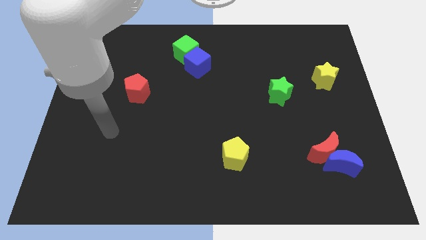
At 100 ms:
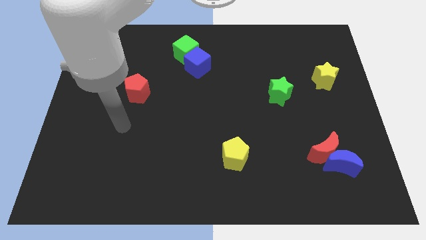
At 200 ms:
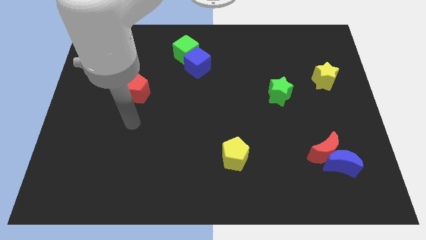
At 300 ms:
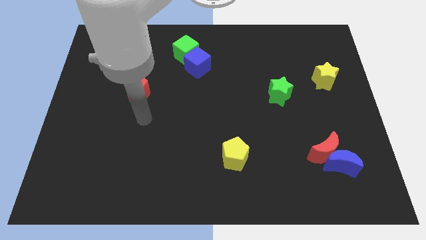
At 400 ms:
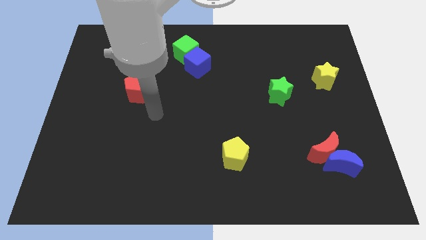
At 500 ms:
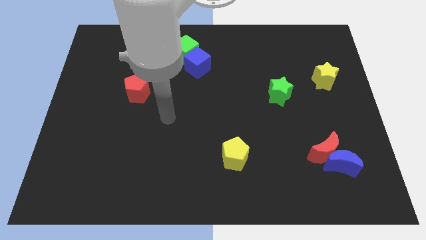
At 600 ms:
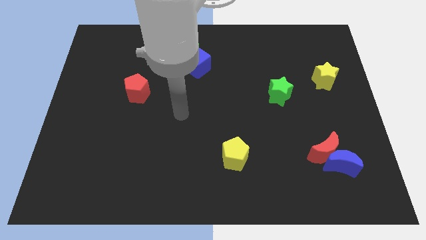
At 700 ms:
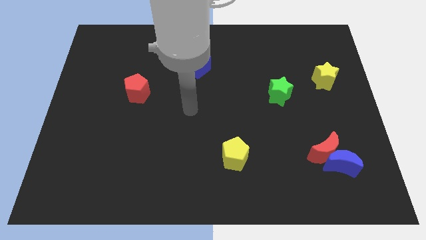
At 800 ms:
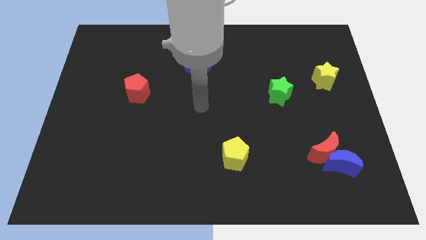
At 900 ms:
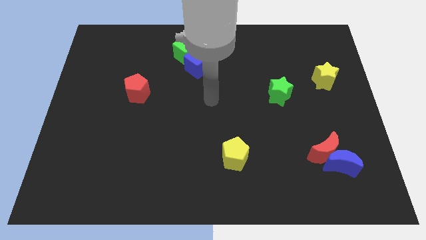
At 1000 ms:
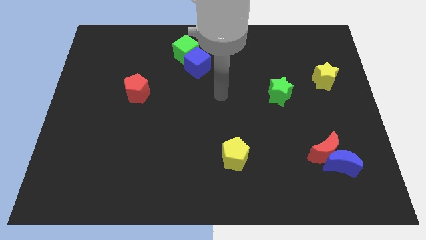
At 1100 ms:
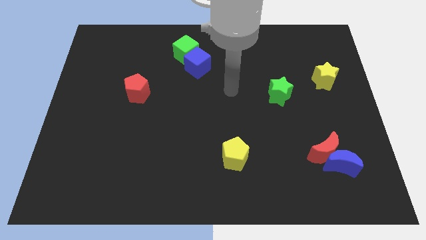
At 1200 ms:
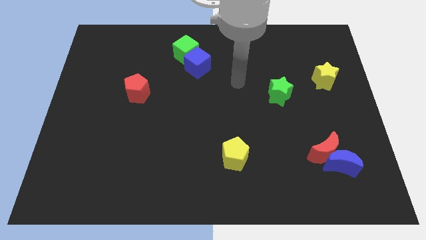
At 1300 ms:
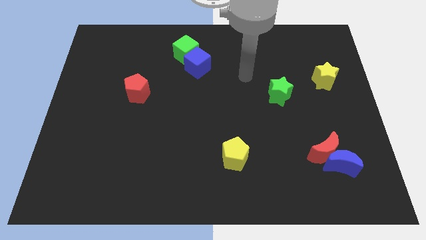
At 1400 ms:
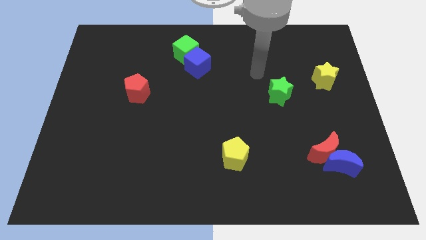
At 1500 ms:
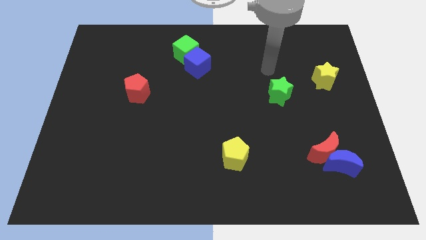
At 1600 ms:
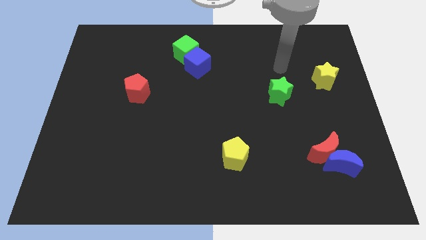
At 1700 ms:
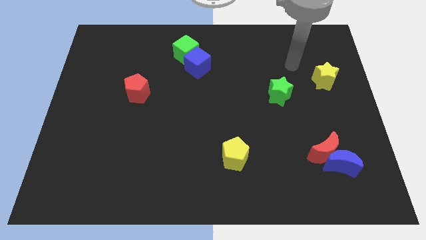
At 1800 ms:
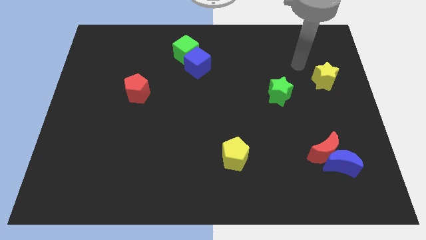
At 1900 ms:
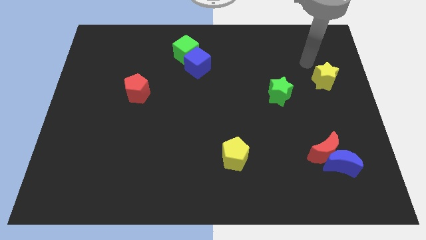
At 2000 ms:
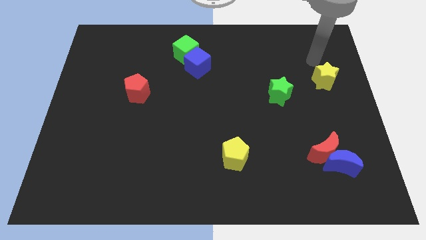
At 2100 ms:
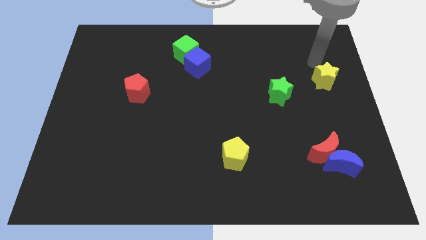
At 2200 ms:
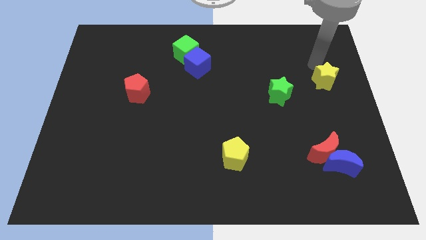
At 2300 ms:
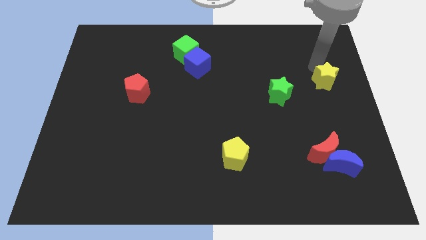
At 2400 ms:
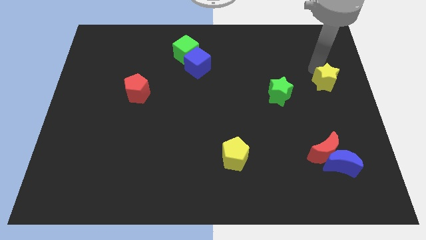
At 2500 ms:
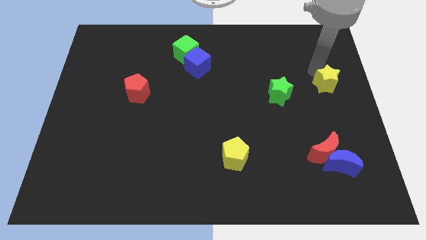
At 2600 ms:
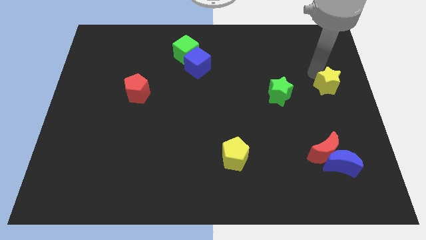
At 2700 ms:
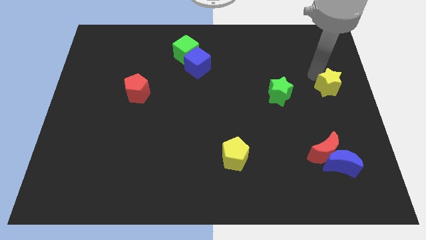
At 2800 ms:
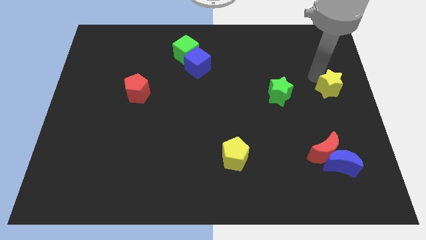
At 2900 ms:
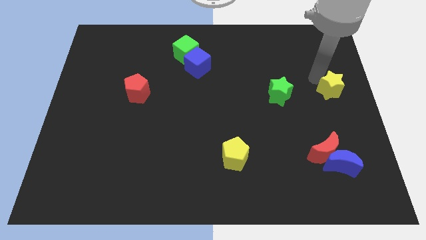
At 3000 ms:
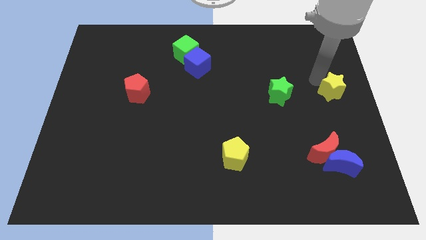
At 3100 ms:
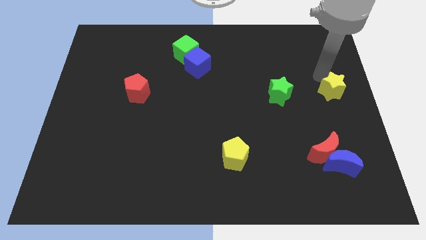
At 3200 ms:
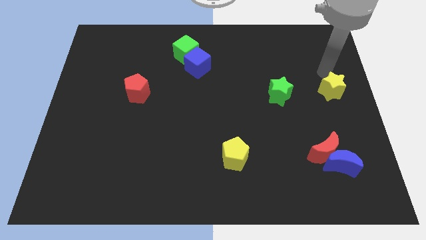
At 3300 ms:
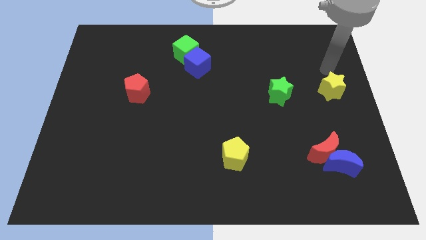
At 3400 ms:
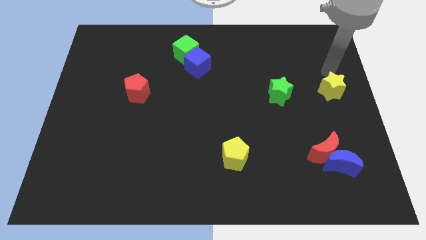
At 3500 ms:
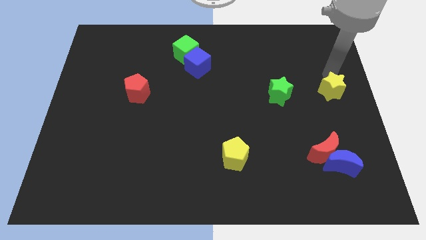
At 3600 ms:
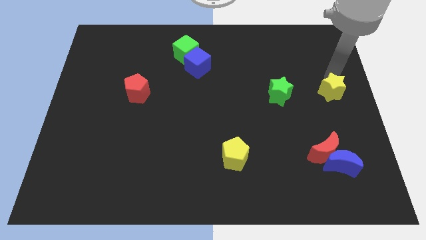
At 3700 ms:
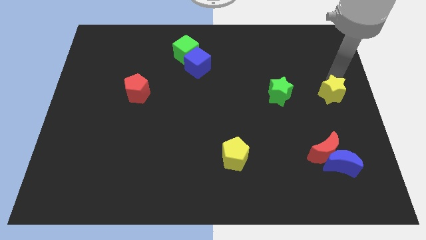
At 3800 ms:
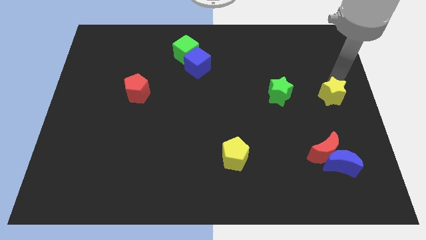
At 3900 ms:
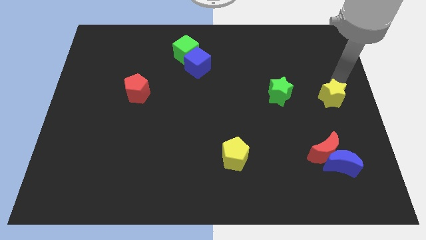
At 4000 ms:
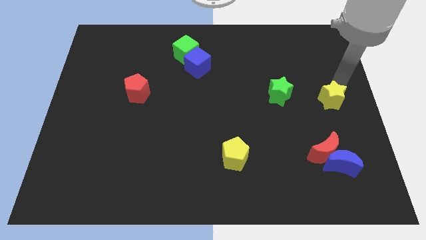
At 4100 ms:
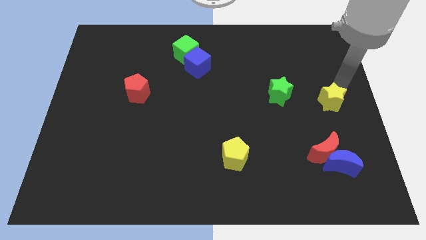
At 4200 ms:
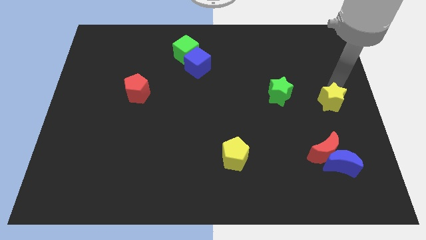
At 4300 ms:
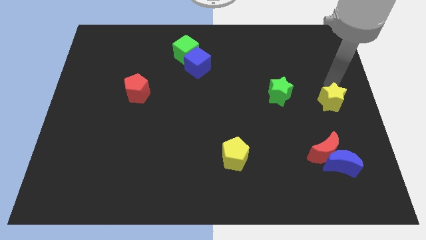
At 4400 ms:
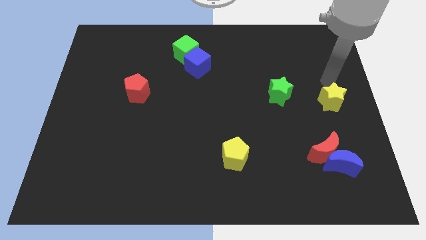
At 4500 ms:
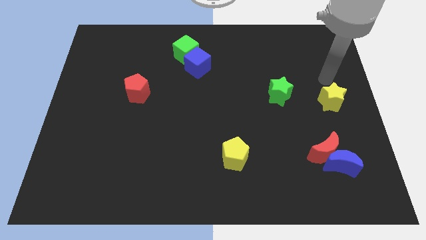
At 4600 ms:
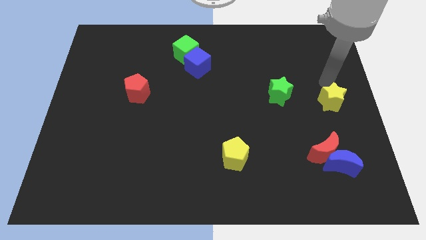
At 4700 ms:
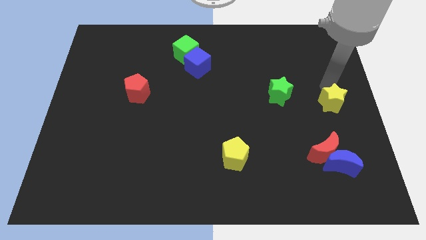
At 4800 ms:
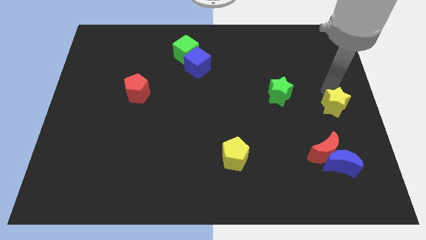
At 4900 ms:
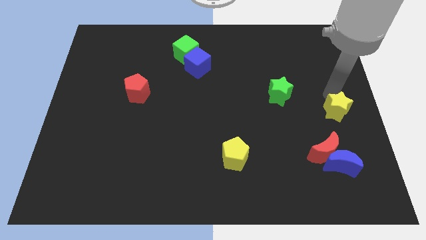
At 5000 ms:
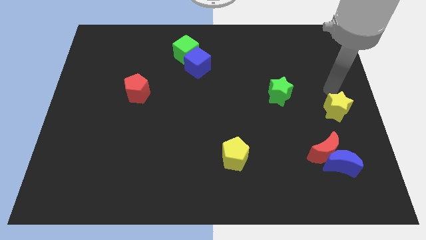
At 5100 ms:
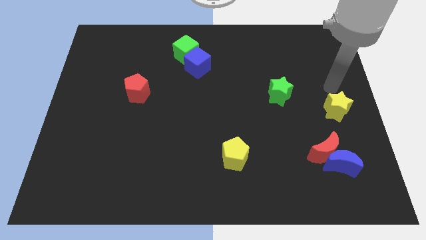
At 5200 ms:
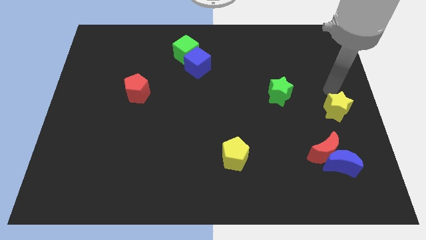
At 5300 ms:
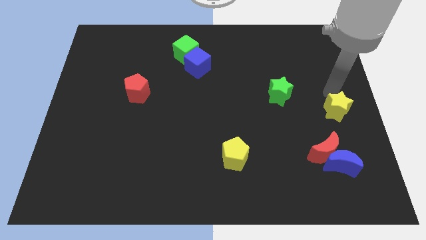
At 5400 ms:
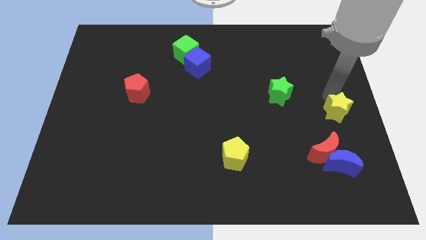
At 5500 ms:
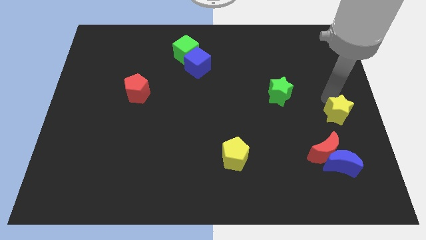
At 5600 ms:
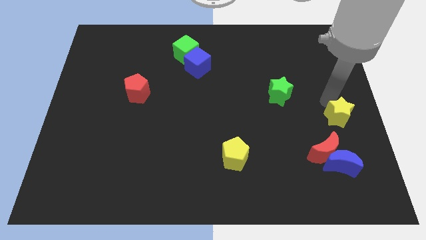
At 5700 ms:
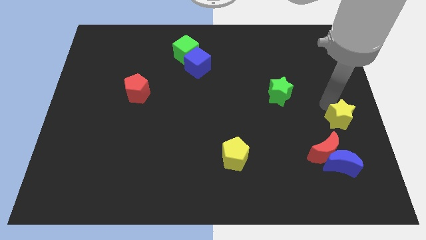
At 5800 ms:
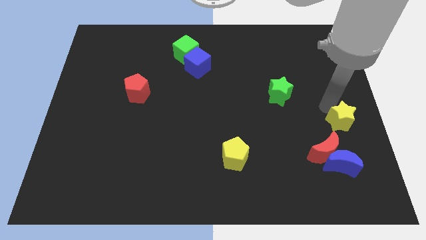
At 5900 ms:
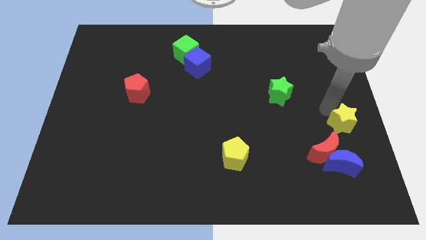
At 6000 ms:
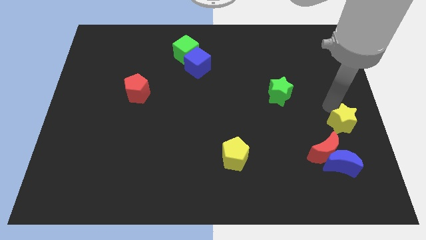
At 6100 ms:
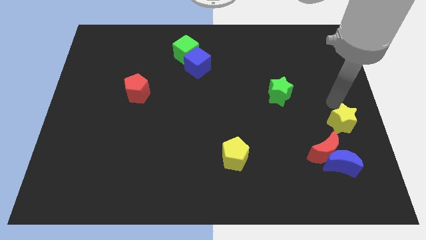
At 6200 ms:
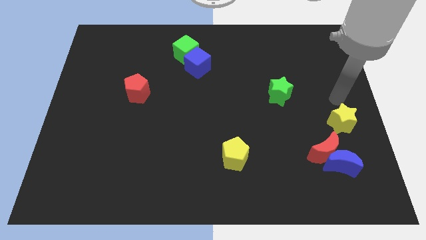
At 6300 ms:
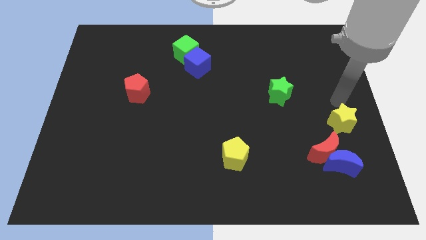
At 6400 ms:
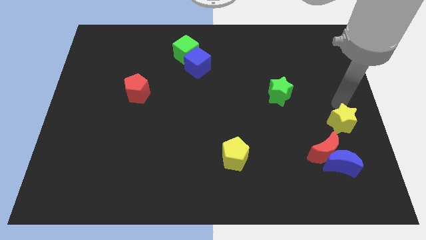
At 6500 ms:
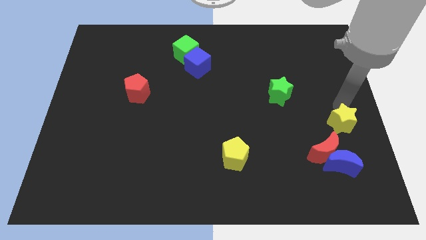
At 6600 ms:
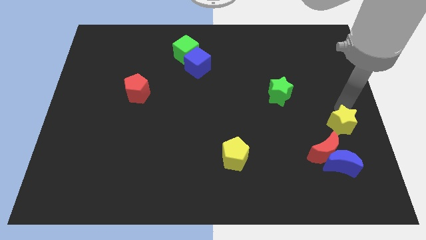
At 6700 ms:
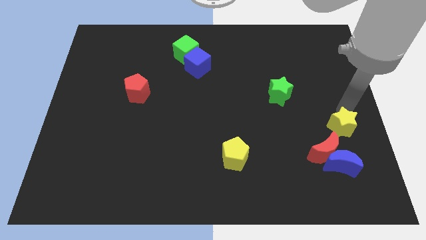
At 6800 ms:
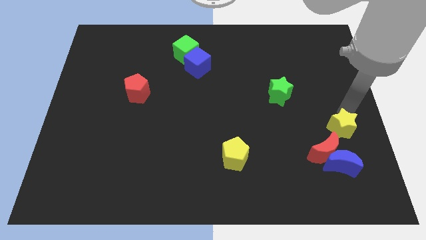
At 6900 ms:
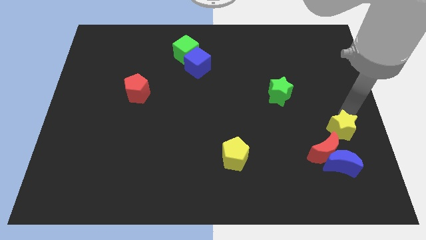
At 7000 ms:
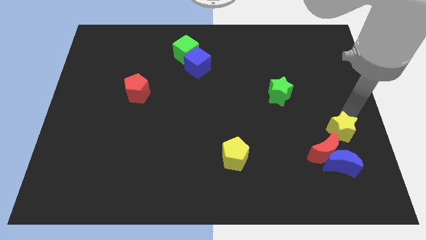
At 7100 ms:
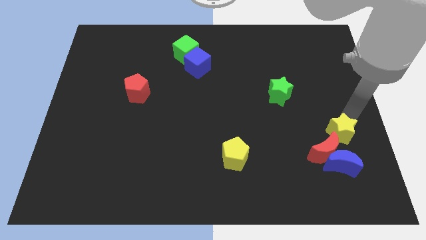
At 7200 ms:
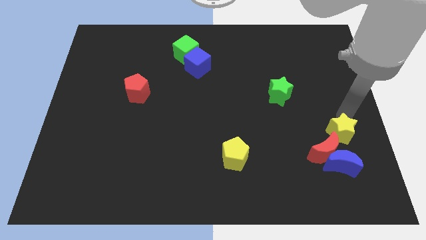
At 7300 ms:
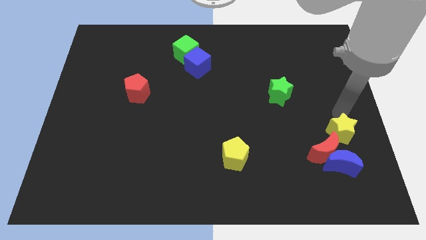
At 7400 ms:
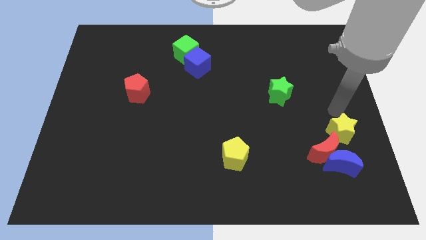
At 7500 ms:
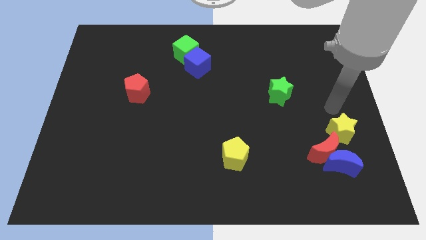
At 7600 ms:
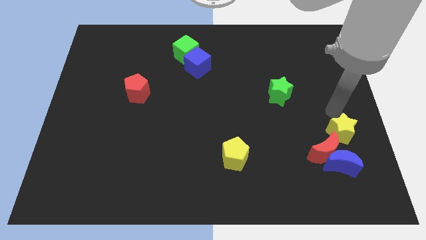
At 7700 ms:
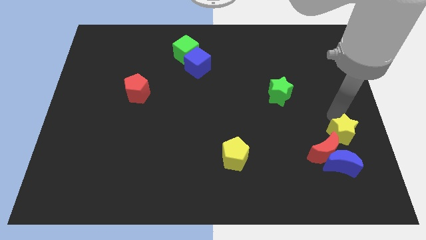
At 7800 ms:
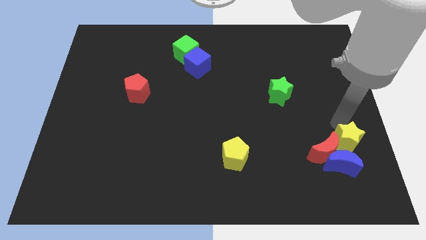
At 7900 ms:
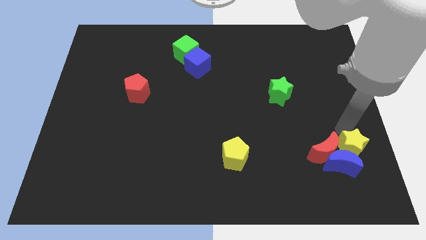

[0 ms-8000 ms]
move the yellow star towards the blue moon
